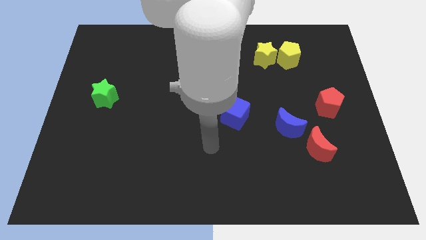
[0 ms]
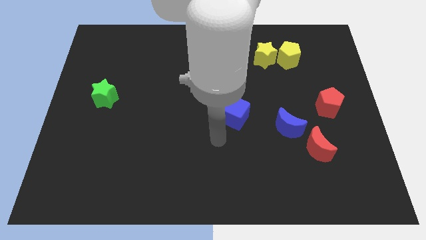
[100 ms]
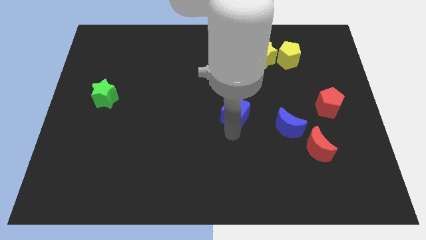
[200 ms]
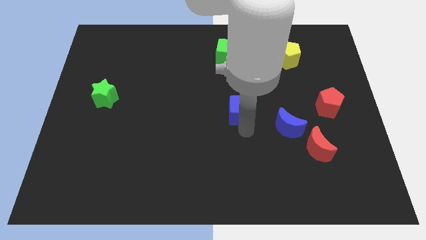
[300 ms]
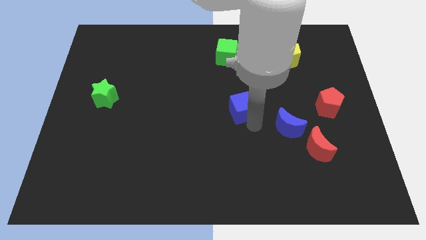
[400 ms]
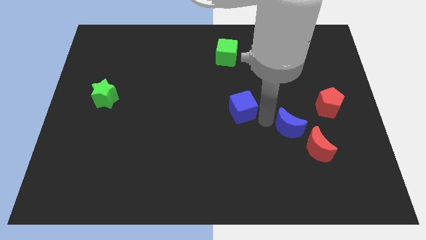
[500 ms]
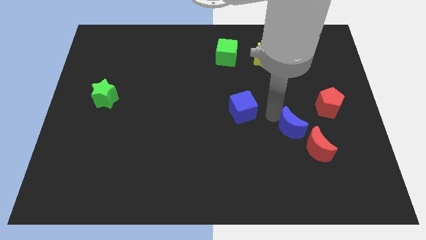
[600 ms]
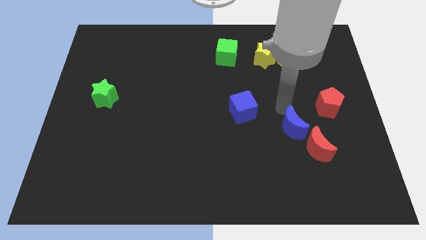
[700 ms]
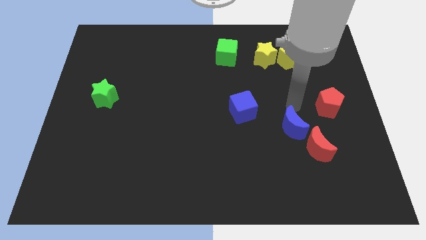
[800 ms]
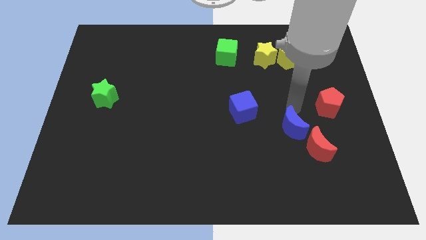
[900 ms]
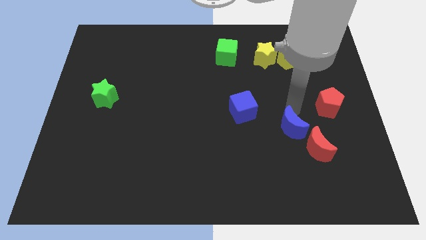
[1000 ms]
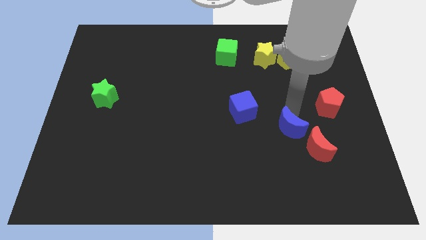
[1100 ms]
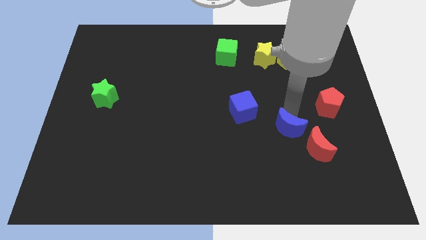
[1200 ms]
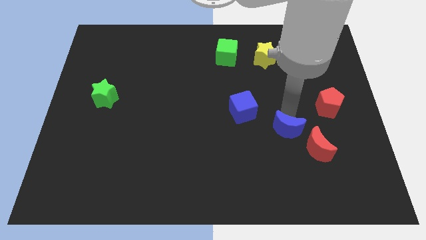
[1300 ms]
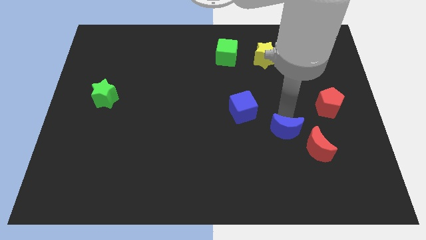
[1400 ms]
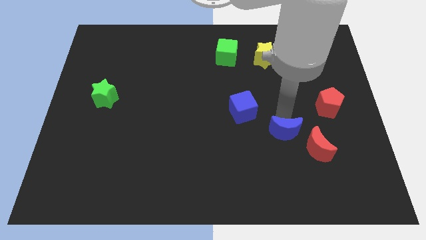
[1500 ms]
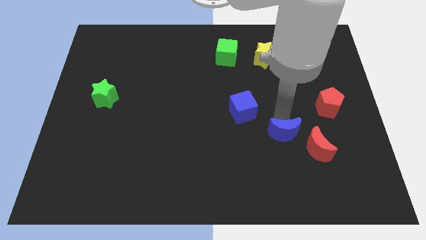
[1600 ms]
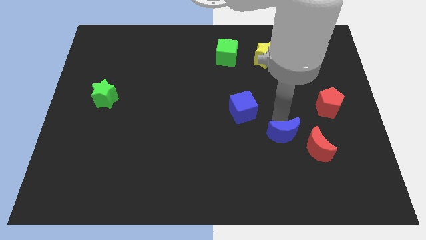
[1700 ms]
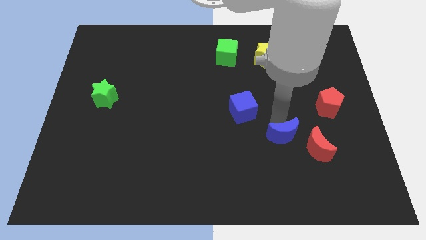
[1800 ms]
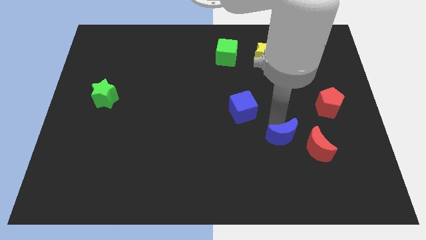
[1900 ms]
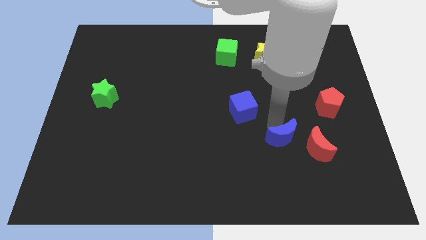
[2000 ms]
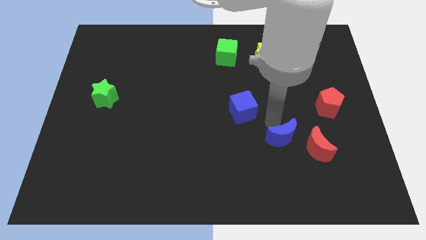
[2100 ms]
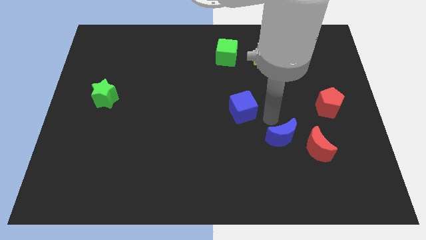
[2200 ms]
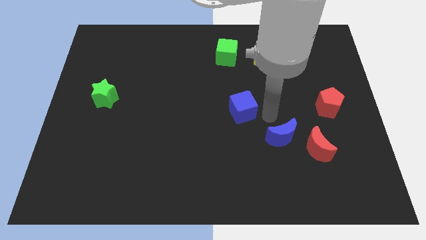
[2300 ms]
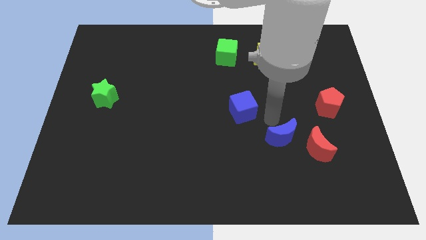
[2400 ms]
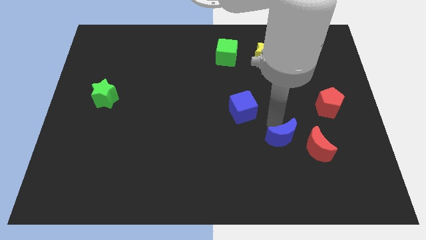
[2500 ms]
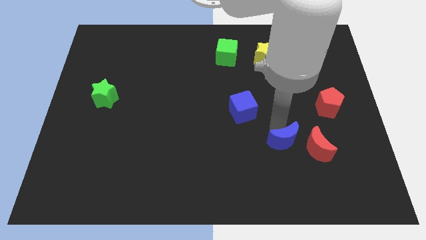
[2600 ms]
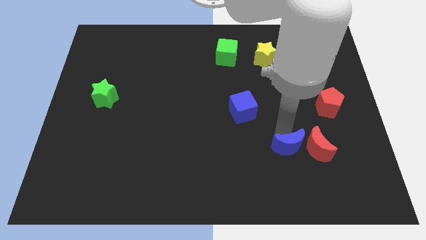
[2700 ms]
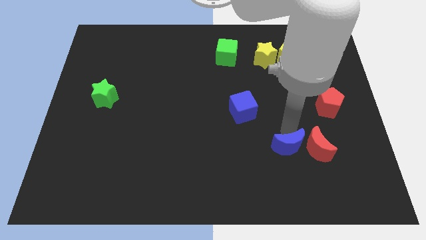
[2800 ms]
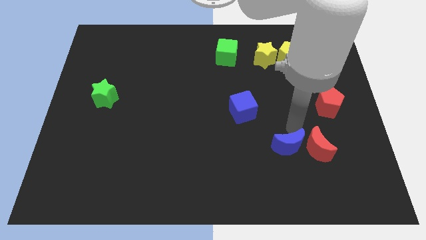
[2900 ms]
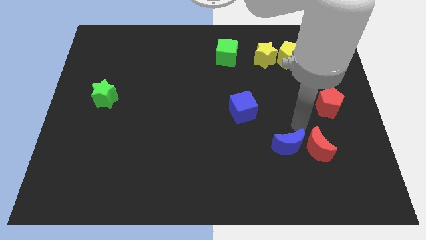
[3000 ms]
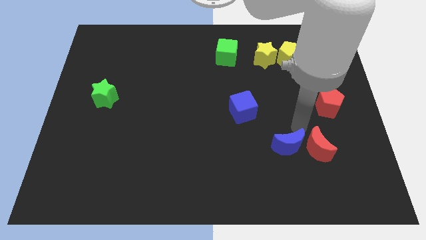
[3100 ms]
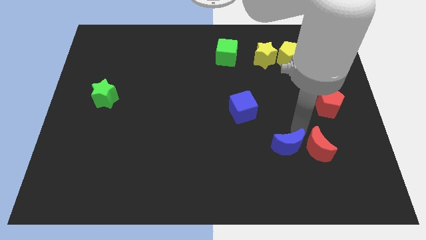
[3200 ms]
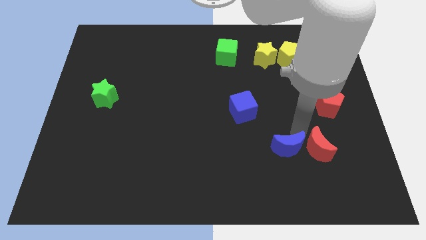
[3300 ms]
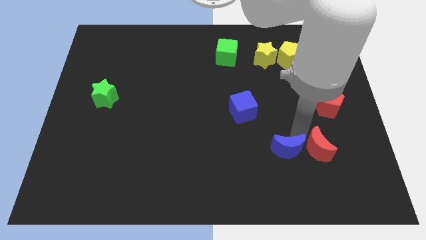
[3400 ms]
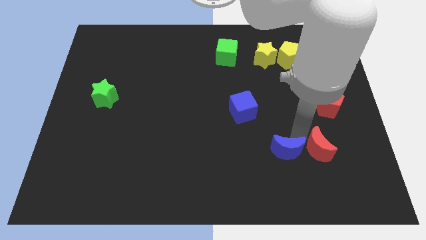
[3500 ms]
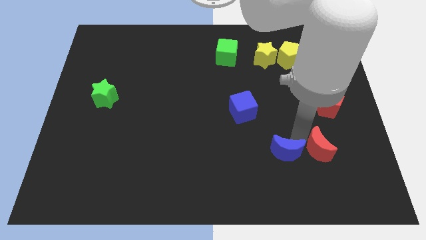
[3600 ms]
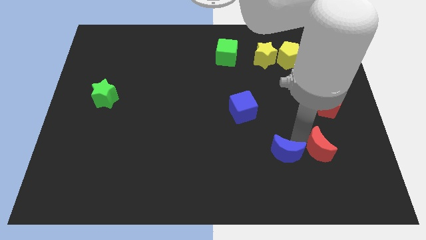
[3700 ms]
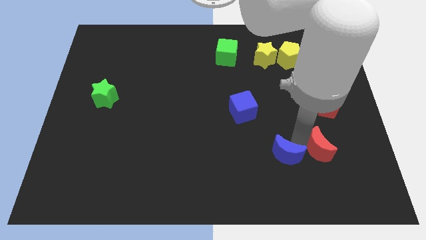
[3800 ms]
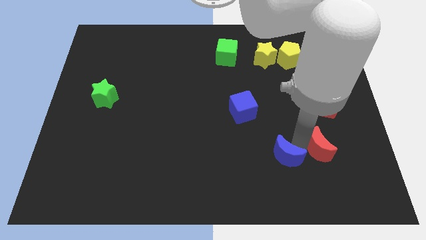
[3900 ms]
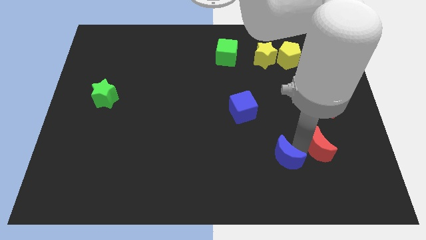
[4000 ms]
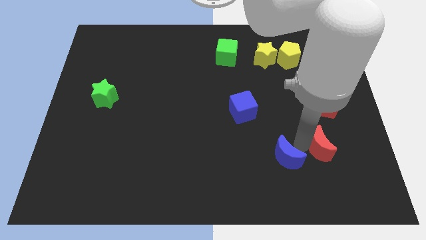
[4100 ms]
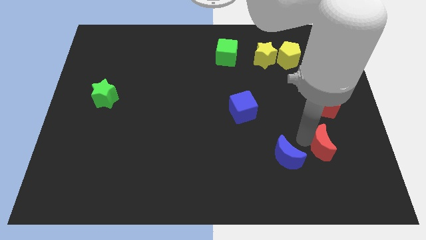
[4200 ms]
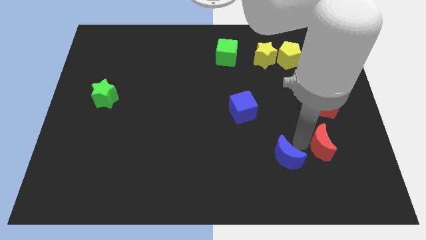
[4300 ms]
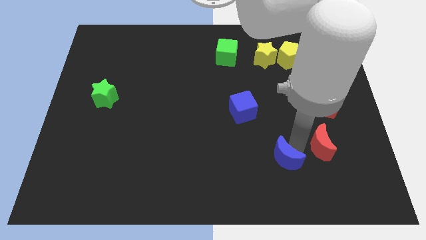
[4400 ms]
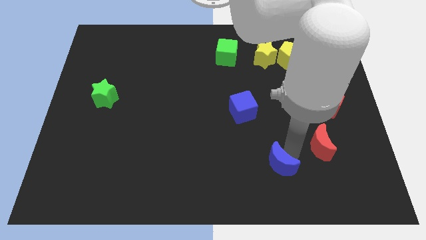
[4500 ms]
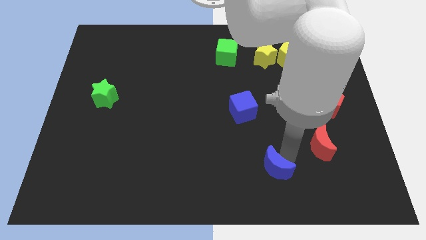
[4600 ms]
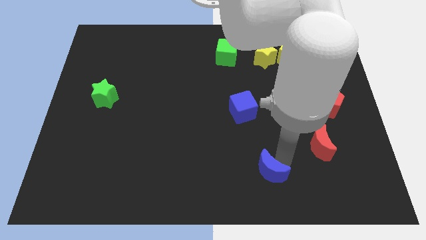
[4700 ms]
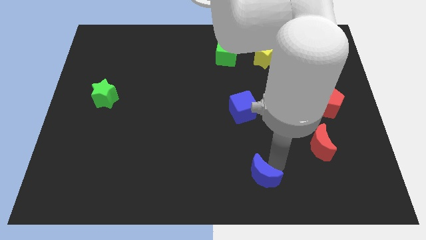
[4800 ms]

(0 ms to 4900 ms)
push the blue moon to the bottom

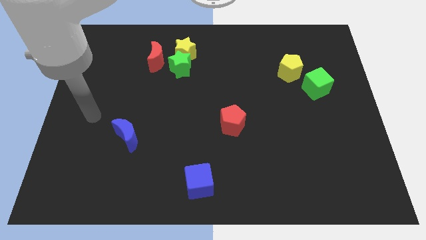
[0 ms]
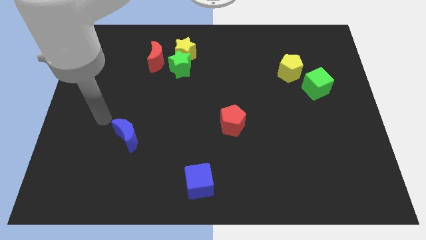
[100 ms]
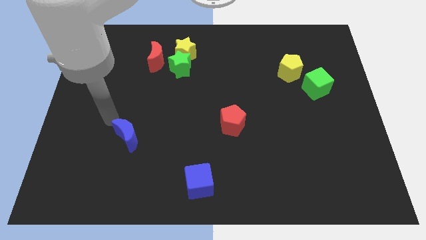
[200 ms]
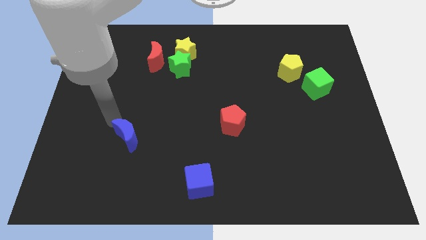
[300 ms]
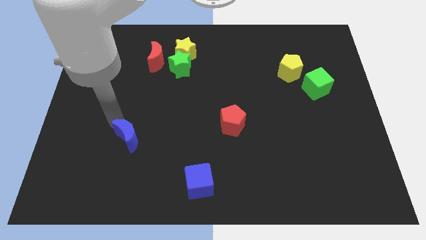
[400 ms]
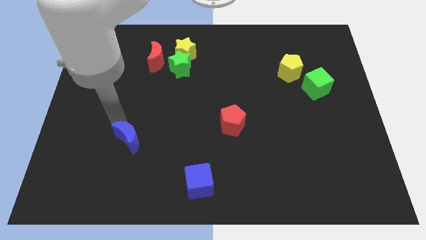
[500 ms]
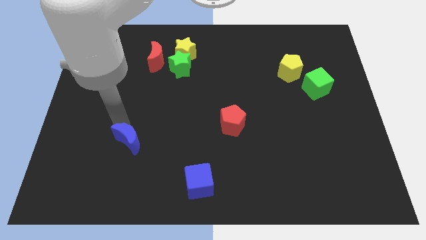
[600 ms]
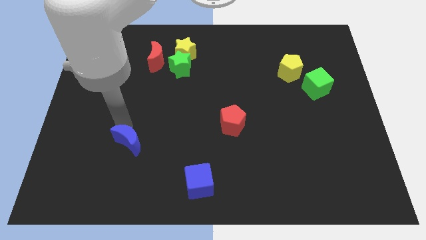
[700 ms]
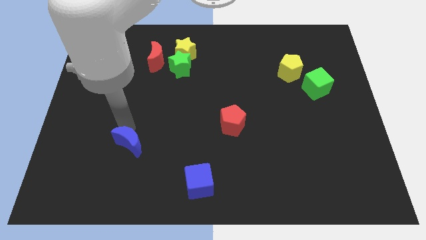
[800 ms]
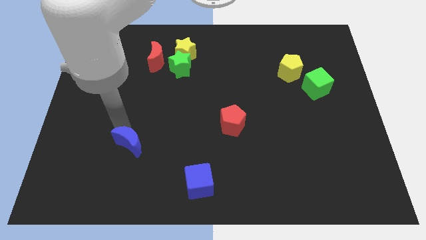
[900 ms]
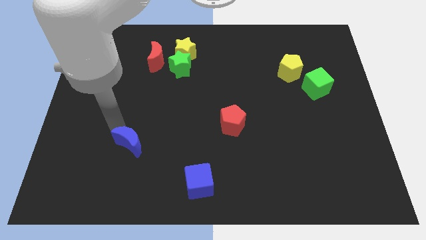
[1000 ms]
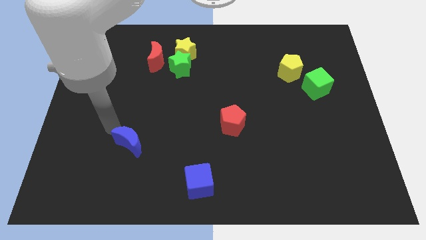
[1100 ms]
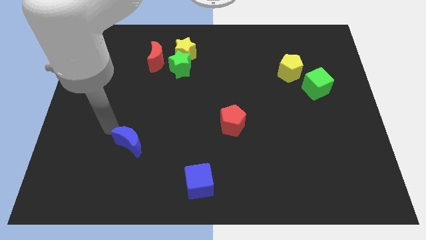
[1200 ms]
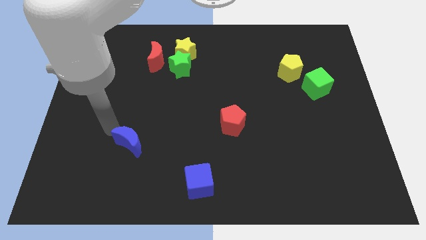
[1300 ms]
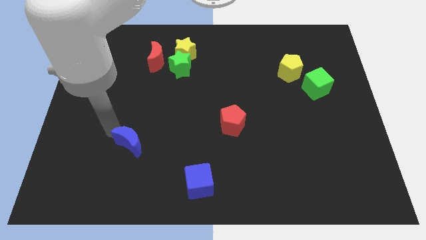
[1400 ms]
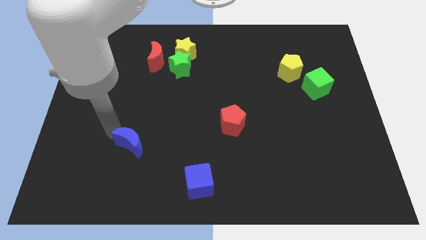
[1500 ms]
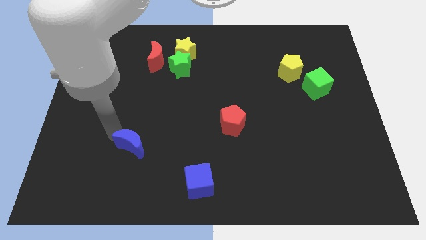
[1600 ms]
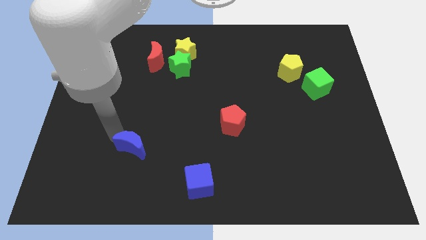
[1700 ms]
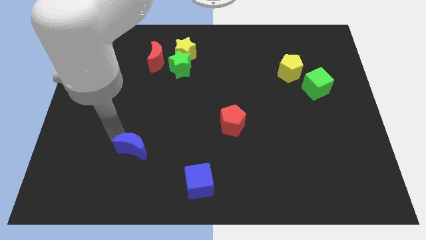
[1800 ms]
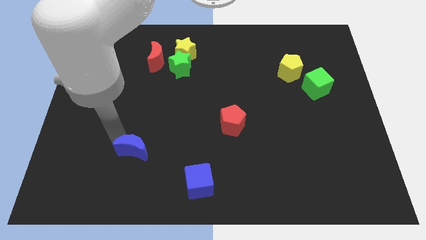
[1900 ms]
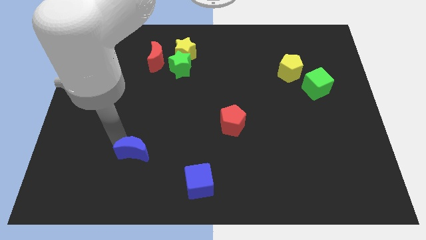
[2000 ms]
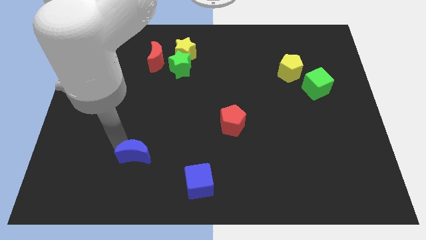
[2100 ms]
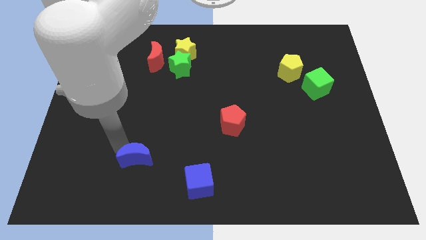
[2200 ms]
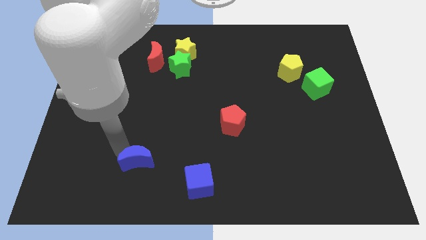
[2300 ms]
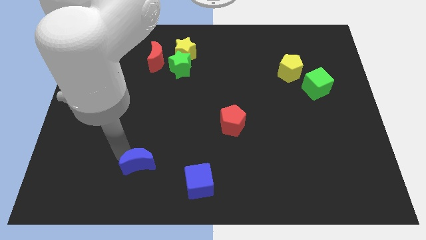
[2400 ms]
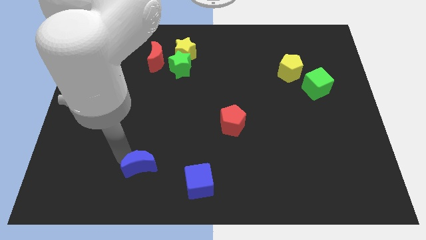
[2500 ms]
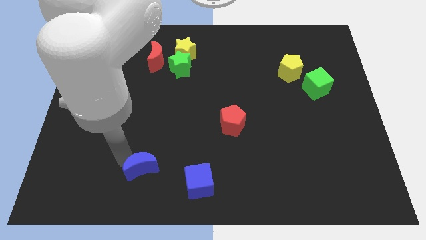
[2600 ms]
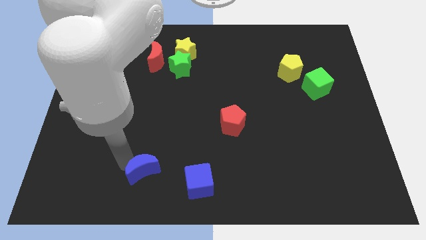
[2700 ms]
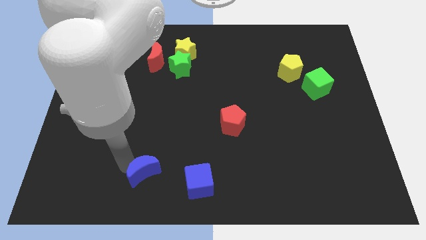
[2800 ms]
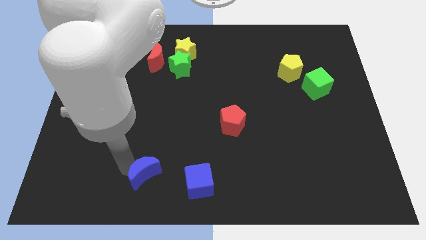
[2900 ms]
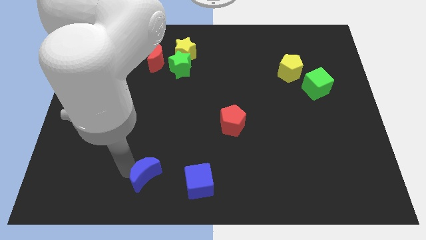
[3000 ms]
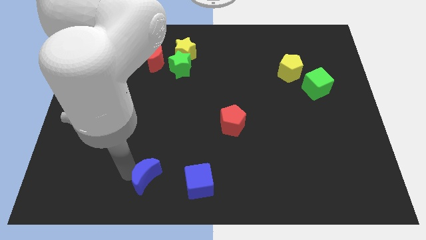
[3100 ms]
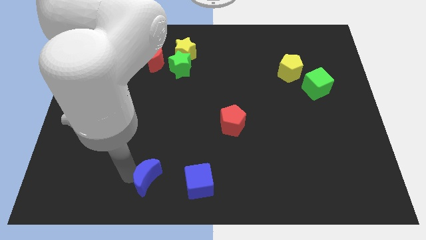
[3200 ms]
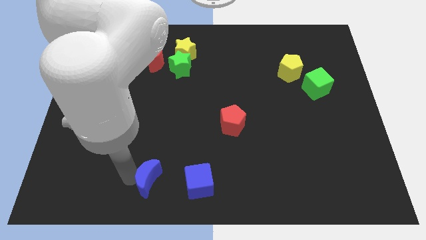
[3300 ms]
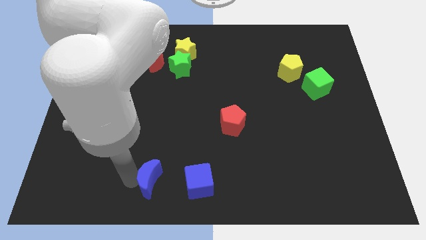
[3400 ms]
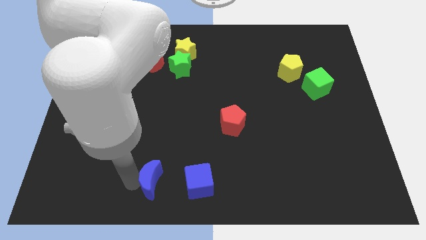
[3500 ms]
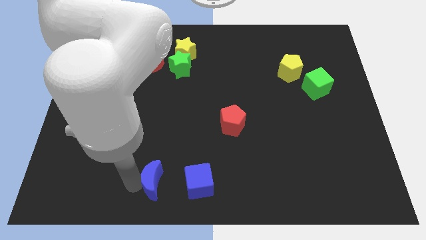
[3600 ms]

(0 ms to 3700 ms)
put the blue moon to the bottom
